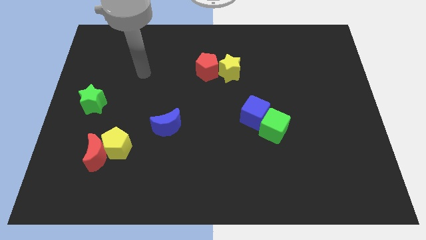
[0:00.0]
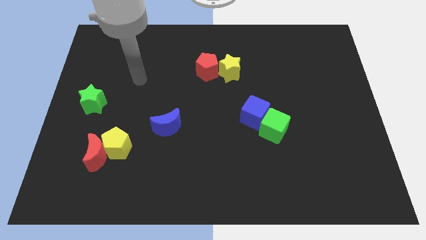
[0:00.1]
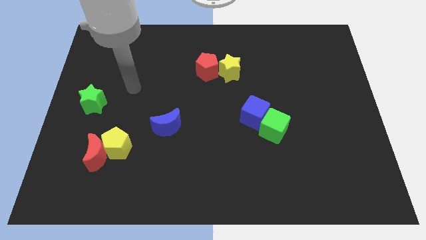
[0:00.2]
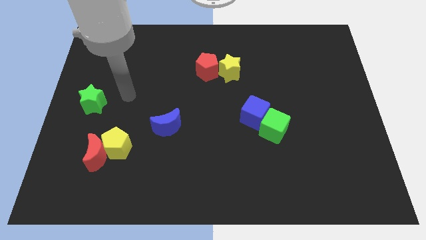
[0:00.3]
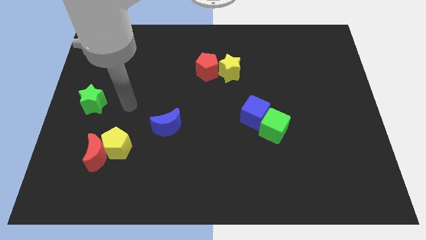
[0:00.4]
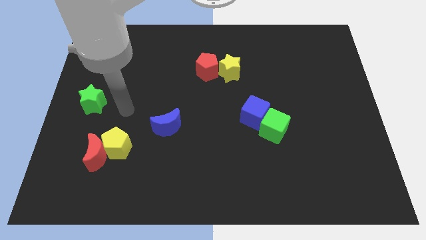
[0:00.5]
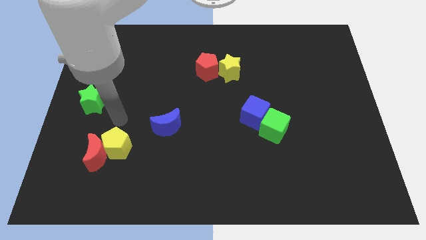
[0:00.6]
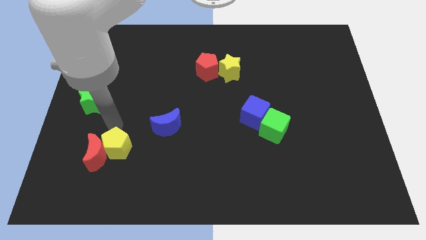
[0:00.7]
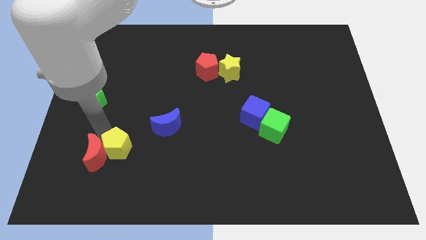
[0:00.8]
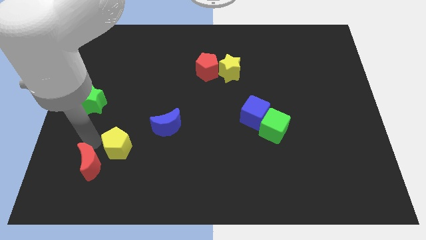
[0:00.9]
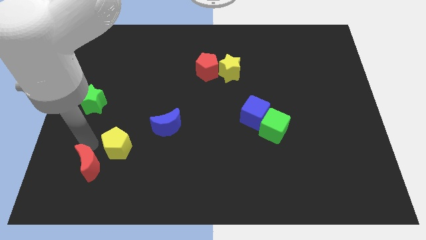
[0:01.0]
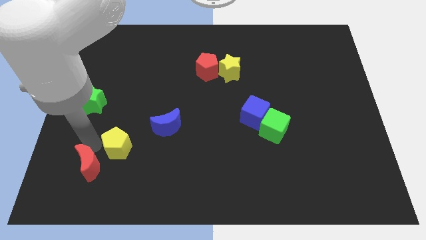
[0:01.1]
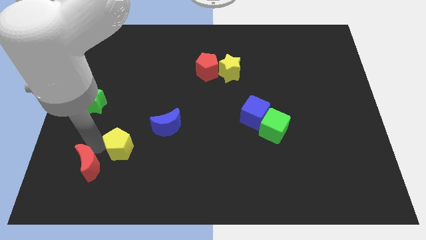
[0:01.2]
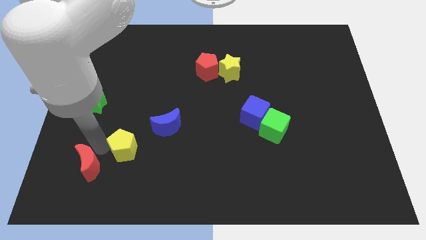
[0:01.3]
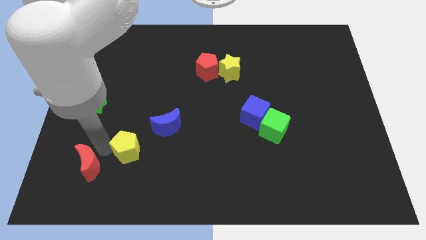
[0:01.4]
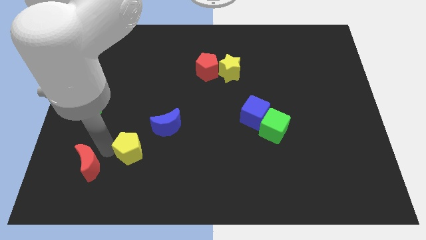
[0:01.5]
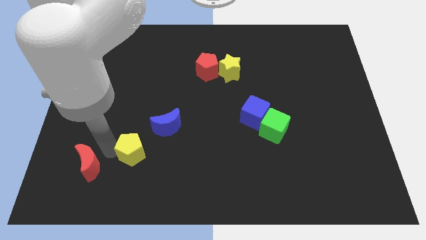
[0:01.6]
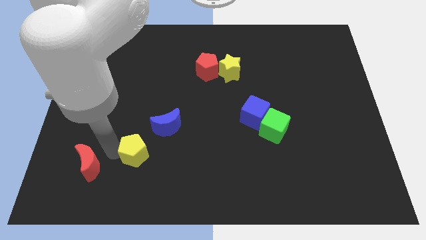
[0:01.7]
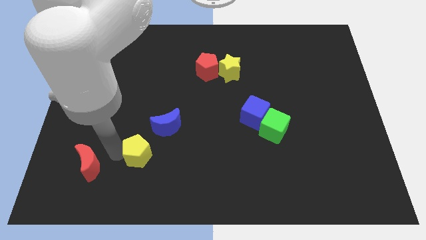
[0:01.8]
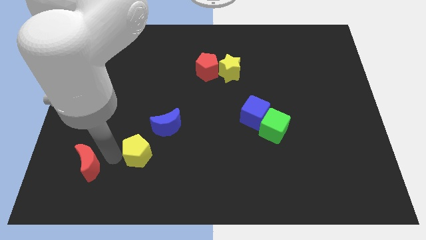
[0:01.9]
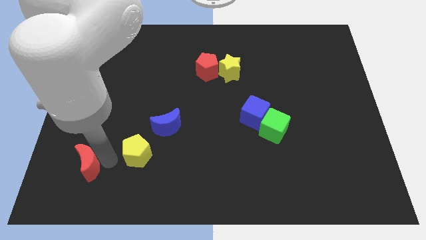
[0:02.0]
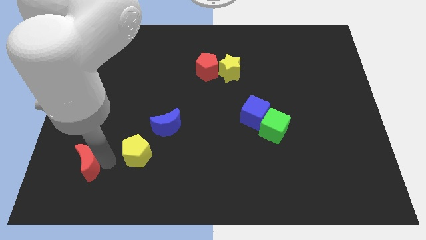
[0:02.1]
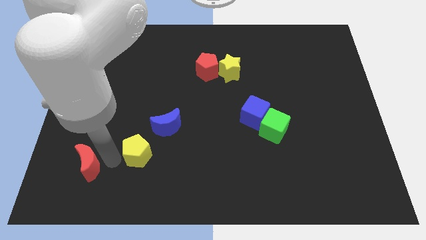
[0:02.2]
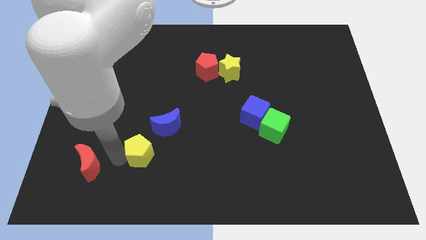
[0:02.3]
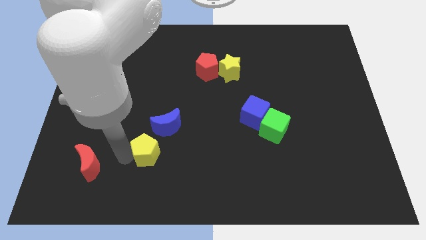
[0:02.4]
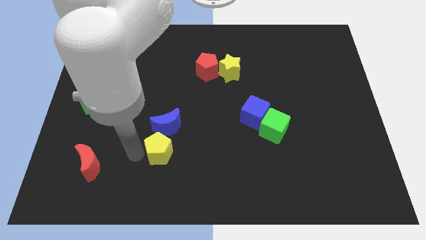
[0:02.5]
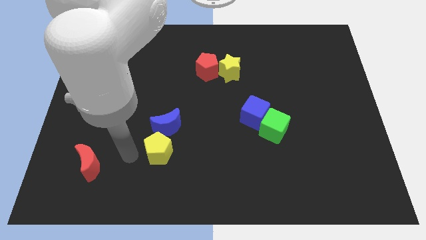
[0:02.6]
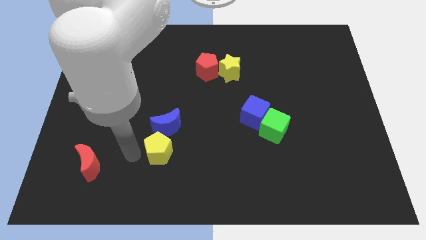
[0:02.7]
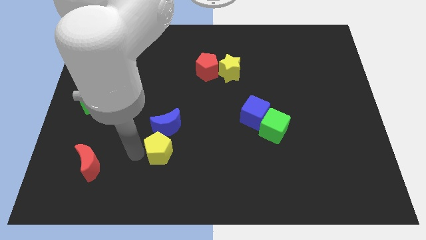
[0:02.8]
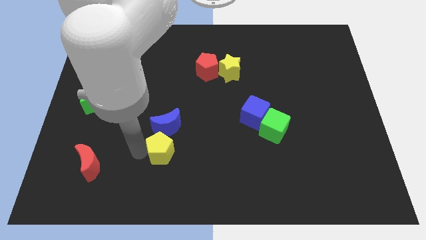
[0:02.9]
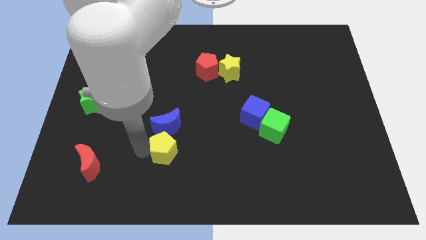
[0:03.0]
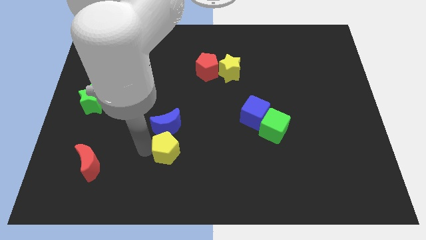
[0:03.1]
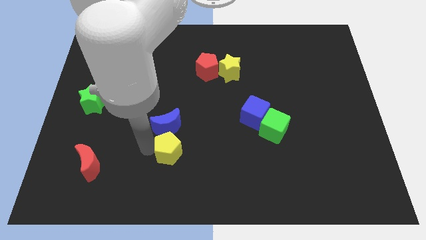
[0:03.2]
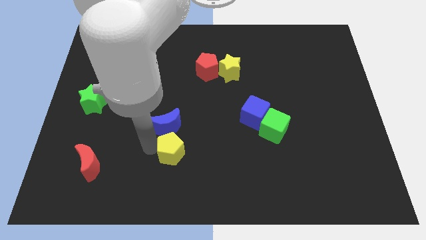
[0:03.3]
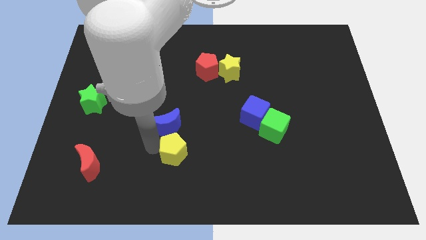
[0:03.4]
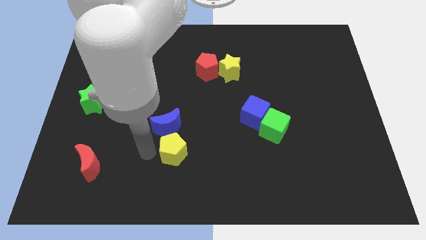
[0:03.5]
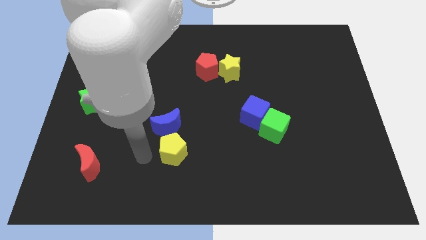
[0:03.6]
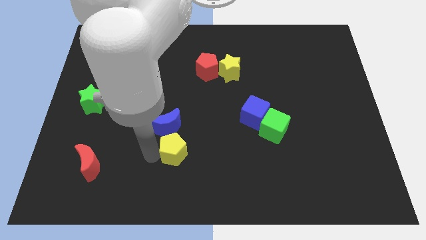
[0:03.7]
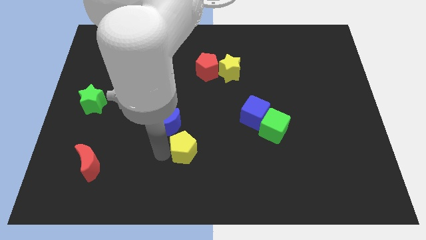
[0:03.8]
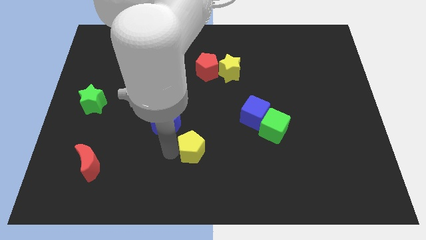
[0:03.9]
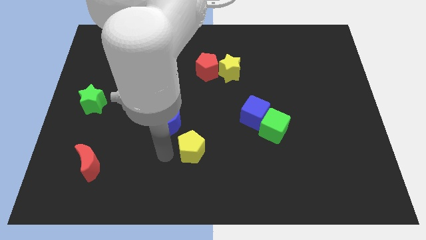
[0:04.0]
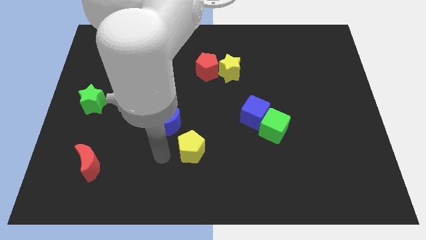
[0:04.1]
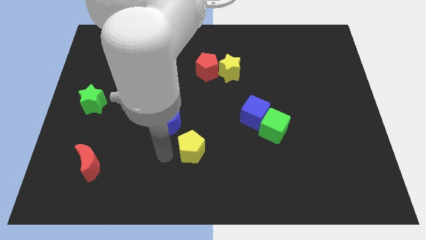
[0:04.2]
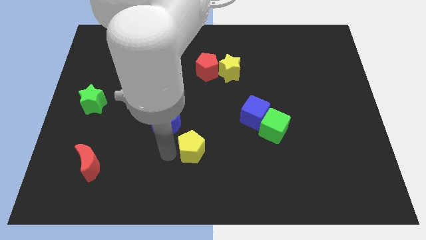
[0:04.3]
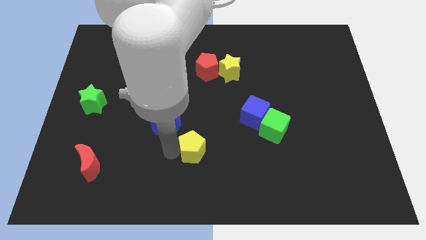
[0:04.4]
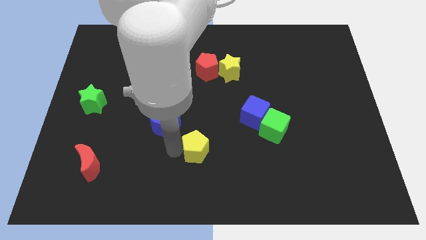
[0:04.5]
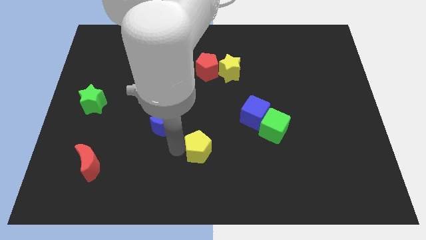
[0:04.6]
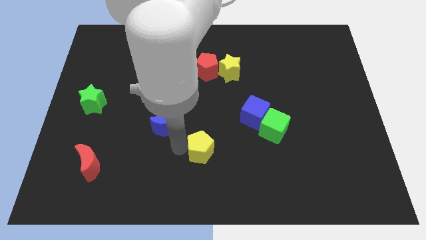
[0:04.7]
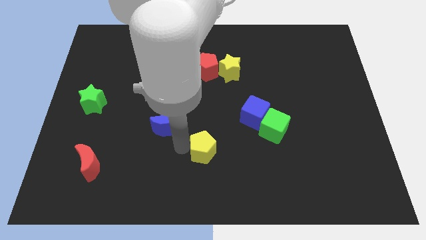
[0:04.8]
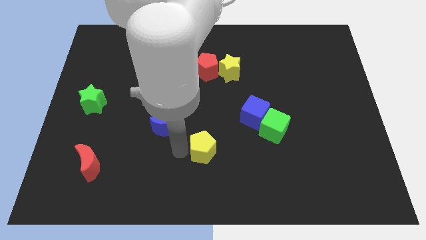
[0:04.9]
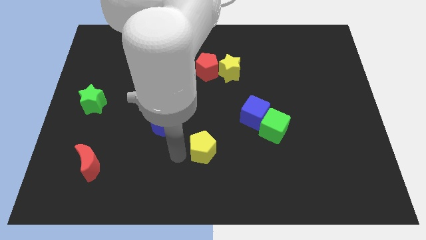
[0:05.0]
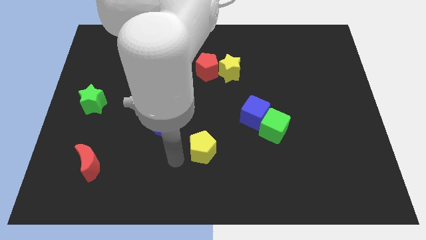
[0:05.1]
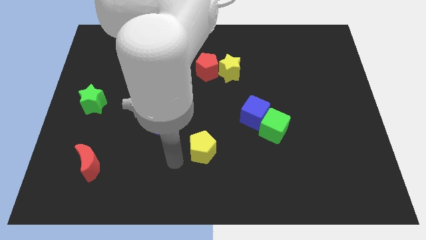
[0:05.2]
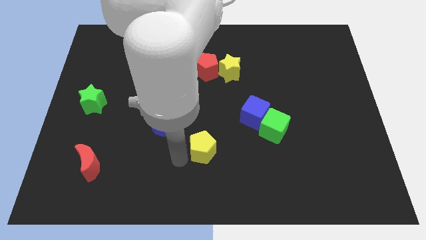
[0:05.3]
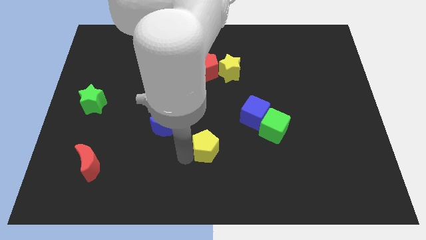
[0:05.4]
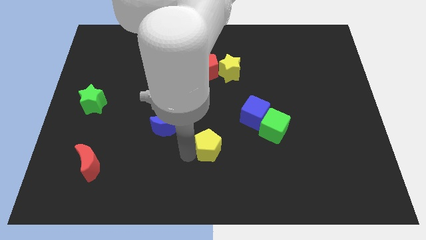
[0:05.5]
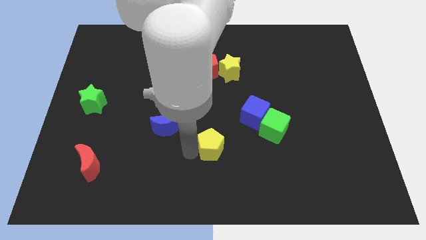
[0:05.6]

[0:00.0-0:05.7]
slide the yellow pentagon right

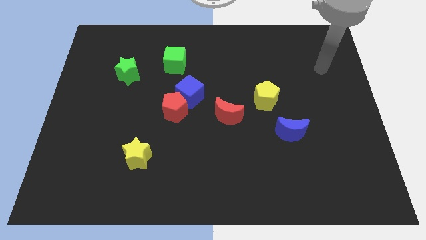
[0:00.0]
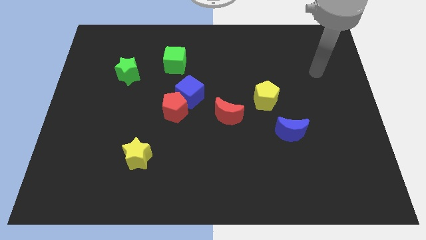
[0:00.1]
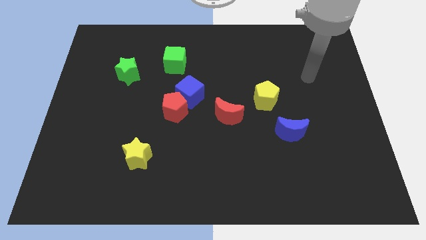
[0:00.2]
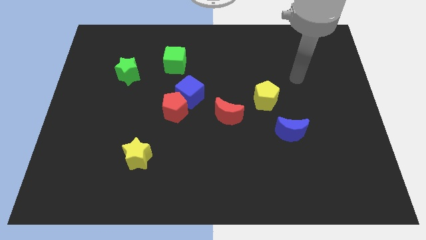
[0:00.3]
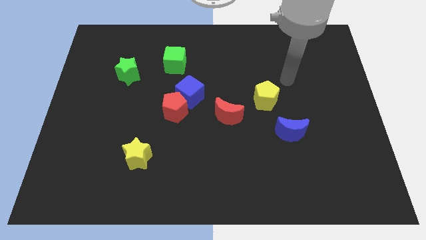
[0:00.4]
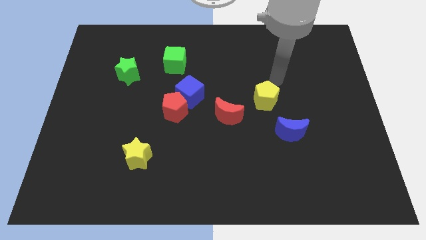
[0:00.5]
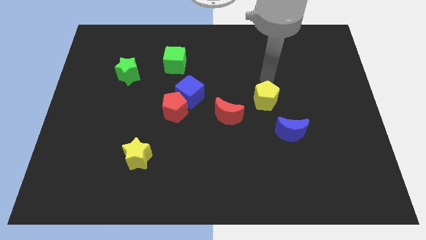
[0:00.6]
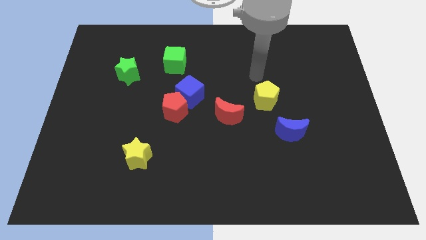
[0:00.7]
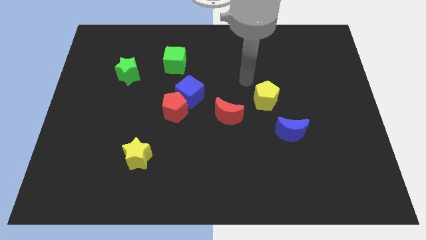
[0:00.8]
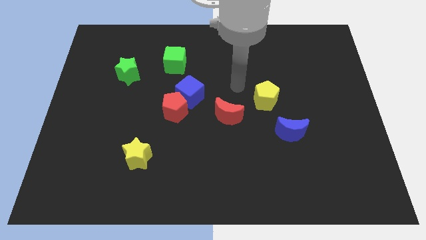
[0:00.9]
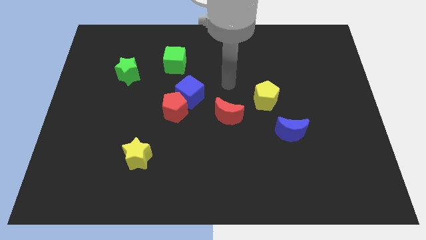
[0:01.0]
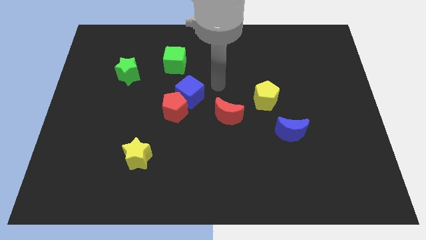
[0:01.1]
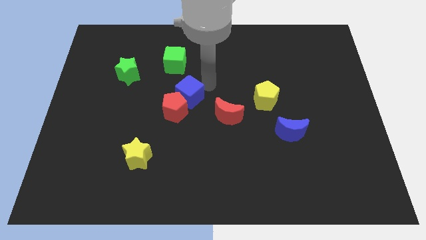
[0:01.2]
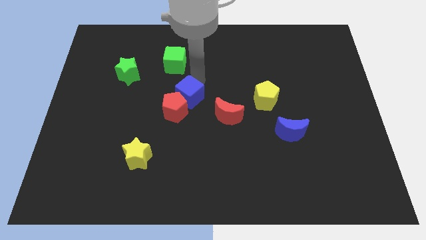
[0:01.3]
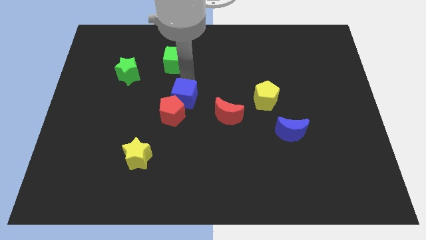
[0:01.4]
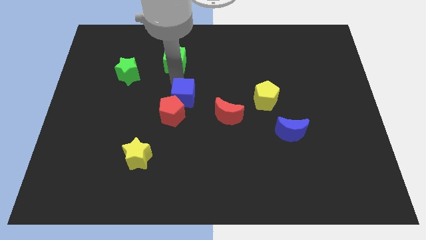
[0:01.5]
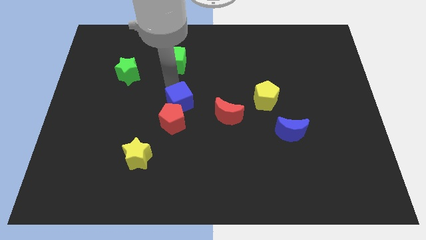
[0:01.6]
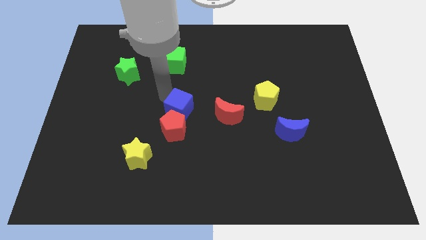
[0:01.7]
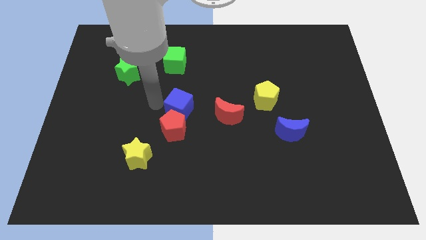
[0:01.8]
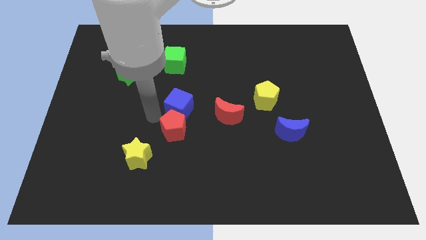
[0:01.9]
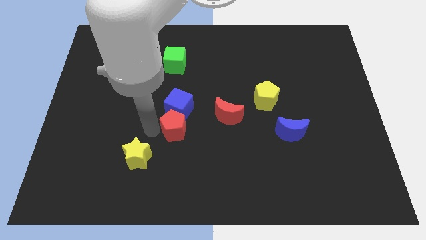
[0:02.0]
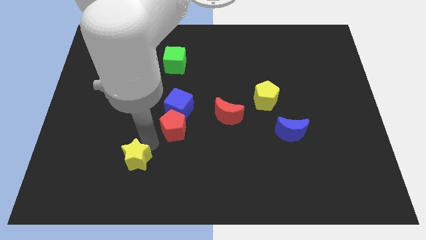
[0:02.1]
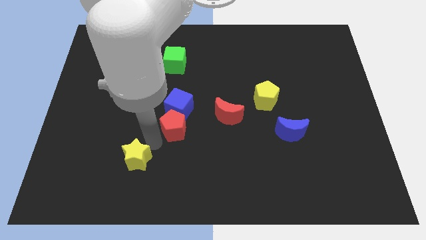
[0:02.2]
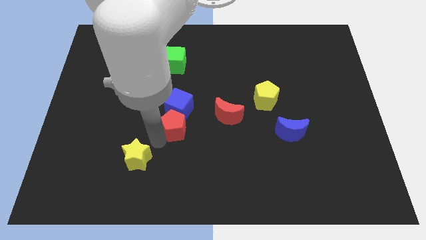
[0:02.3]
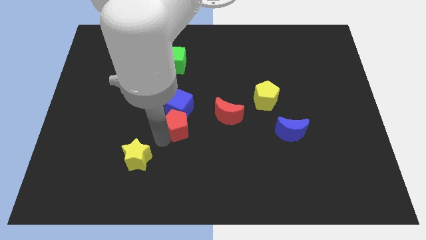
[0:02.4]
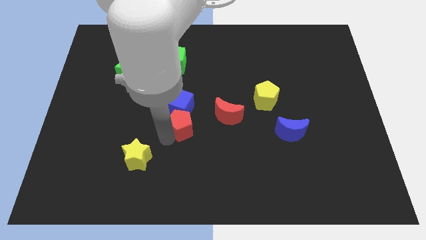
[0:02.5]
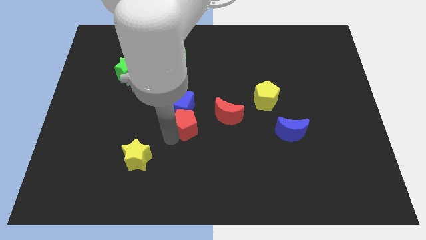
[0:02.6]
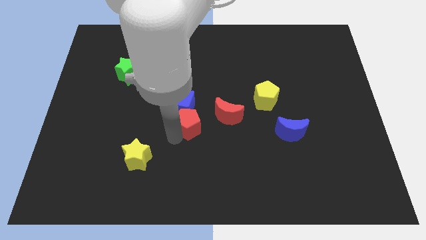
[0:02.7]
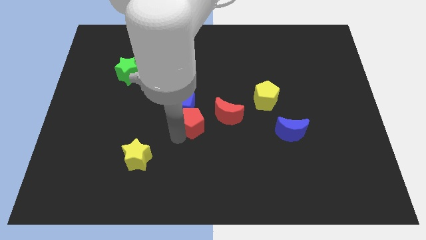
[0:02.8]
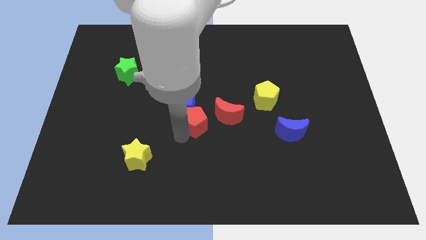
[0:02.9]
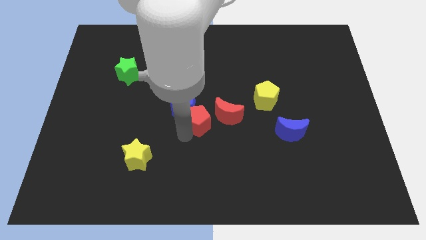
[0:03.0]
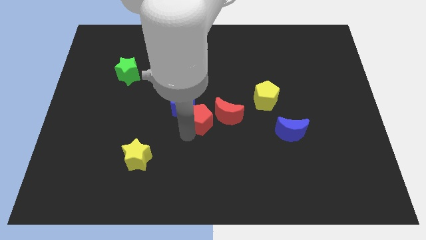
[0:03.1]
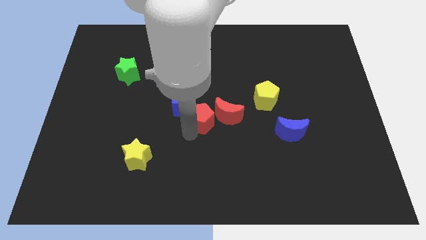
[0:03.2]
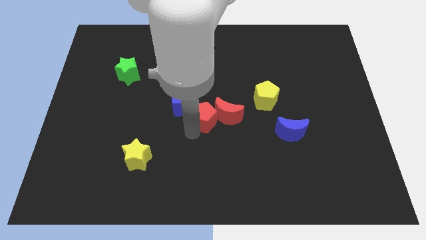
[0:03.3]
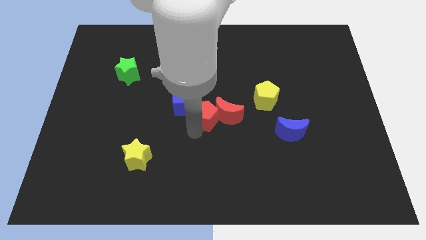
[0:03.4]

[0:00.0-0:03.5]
slightly slide the red pentagon right
